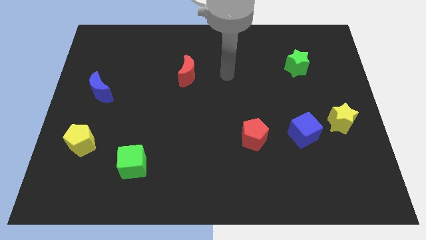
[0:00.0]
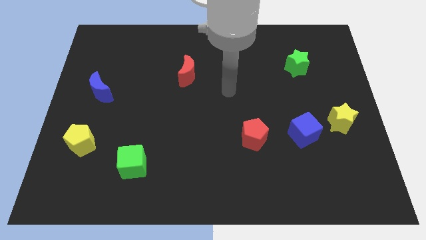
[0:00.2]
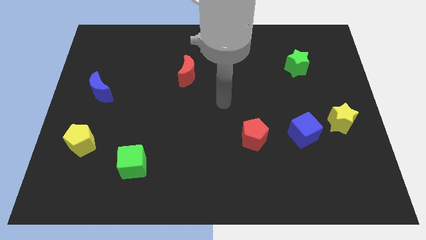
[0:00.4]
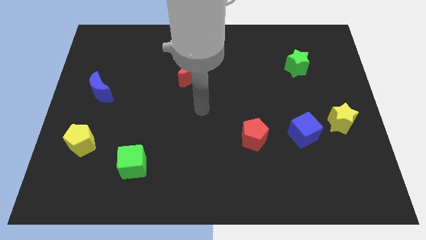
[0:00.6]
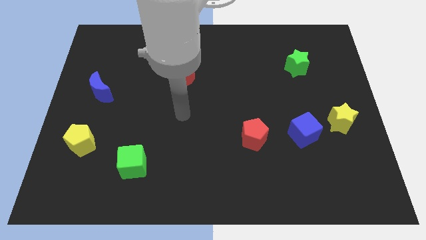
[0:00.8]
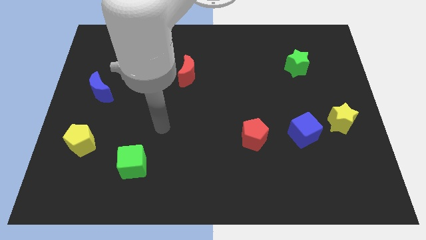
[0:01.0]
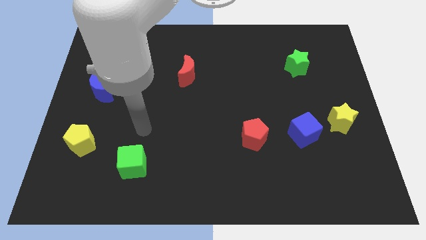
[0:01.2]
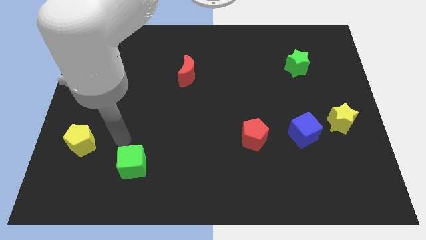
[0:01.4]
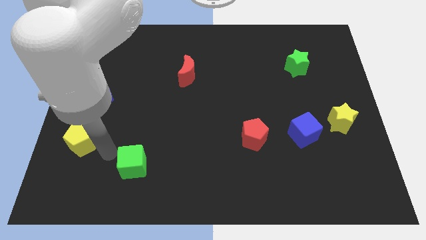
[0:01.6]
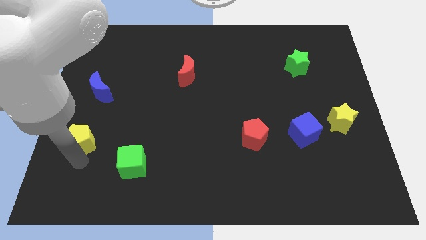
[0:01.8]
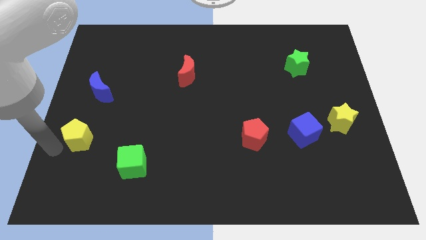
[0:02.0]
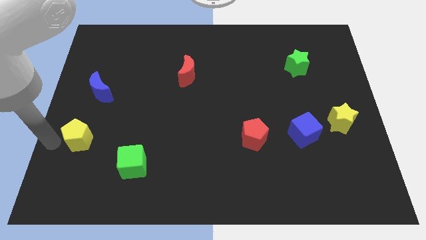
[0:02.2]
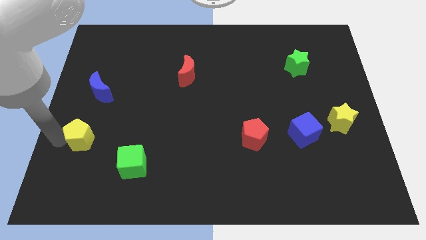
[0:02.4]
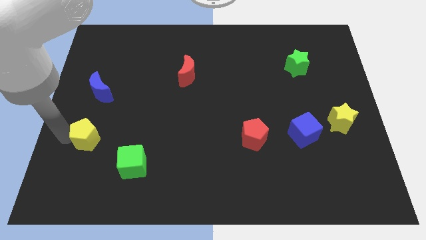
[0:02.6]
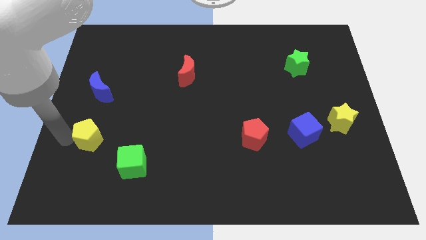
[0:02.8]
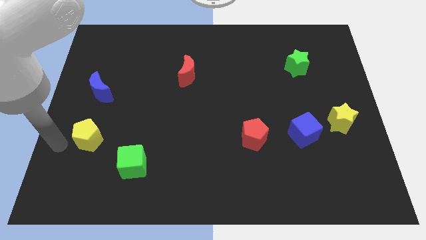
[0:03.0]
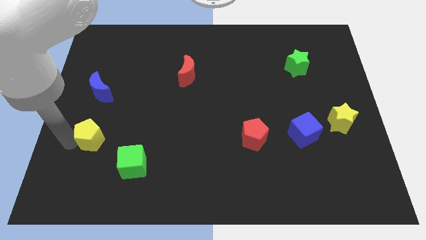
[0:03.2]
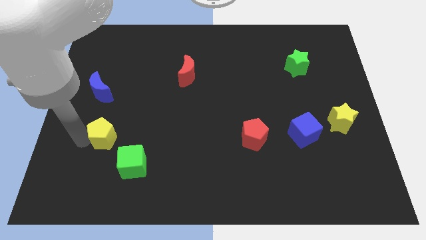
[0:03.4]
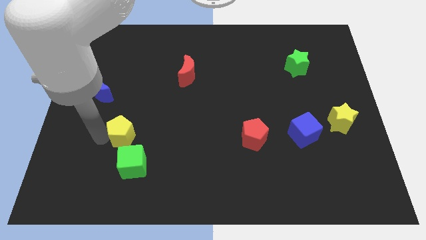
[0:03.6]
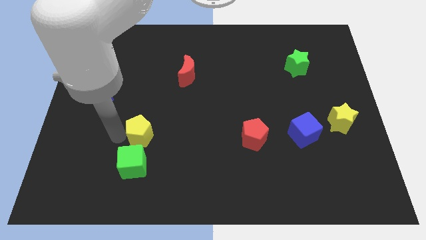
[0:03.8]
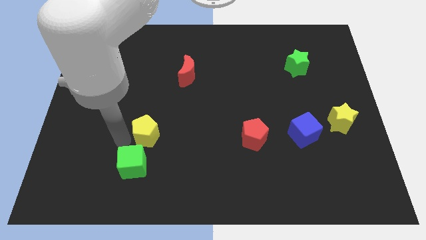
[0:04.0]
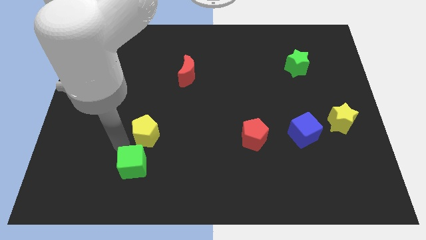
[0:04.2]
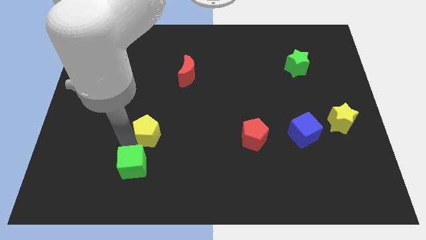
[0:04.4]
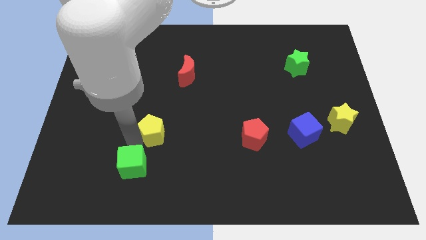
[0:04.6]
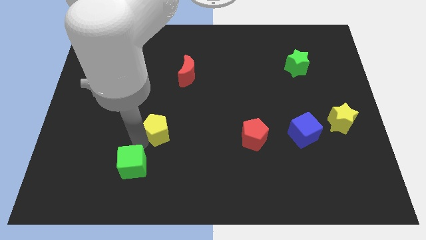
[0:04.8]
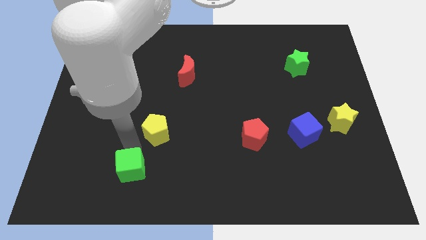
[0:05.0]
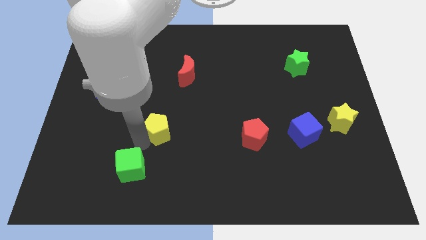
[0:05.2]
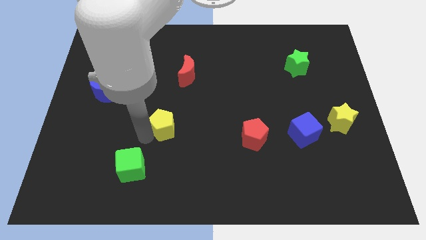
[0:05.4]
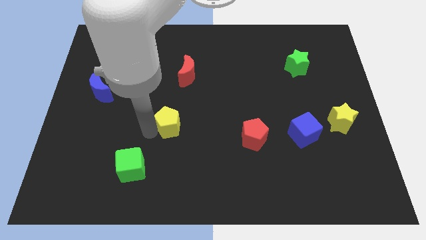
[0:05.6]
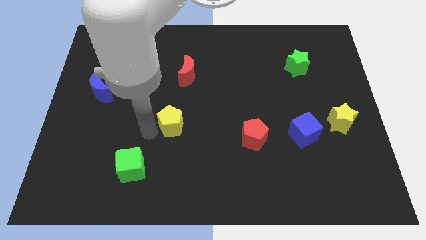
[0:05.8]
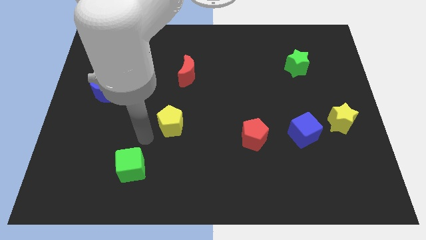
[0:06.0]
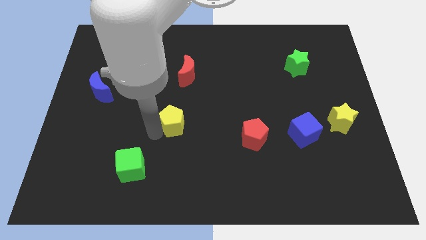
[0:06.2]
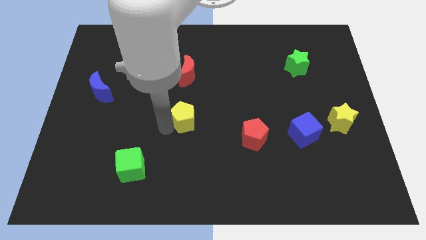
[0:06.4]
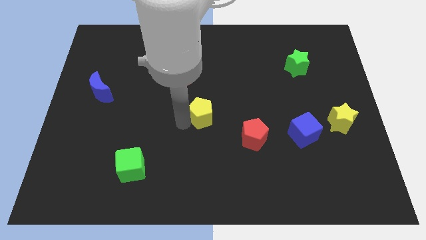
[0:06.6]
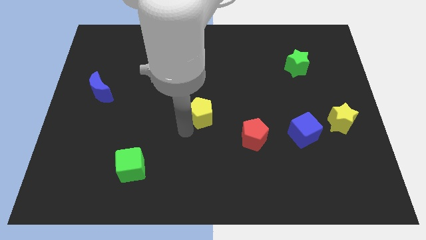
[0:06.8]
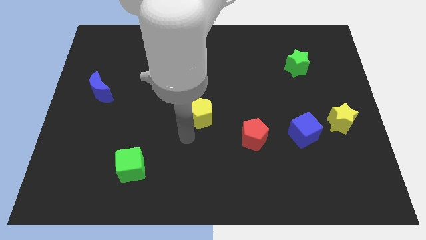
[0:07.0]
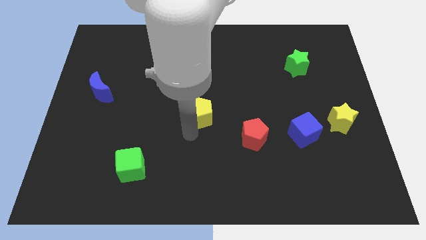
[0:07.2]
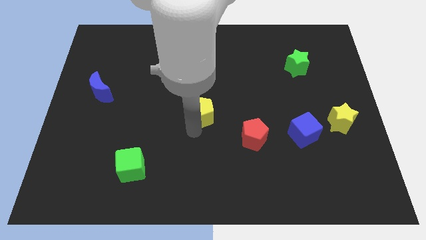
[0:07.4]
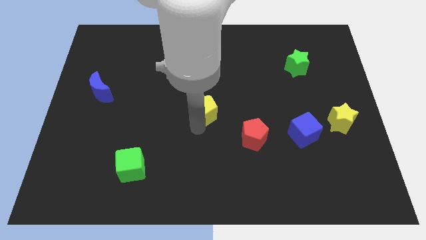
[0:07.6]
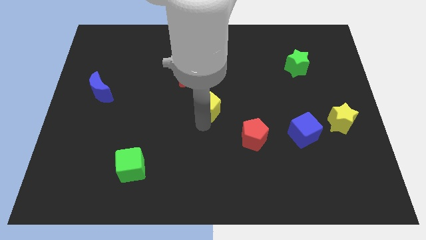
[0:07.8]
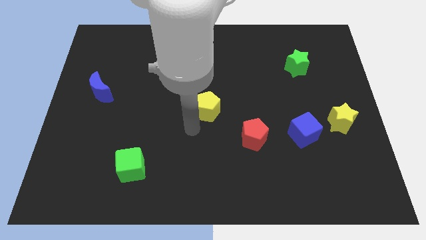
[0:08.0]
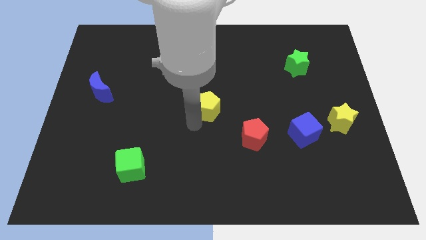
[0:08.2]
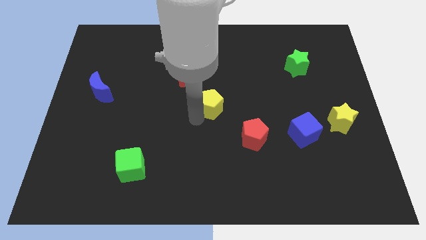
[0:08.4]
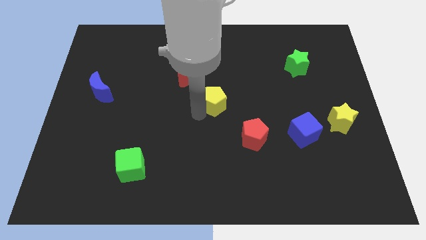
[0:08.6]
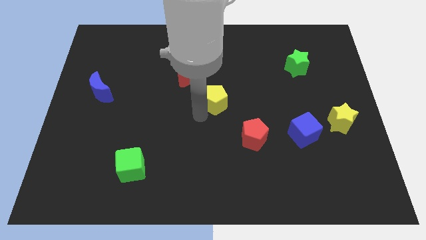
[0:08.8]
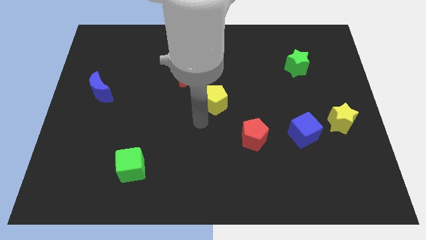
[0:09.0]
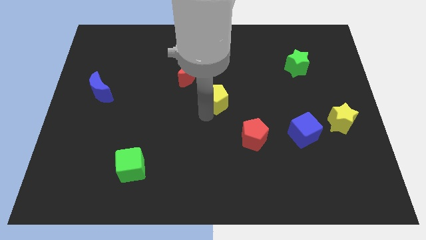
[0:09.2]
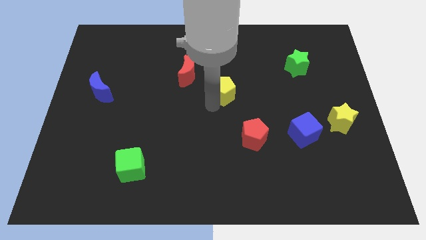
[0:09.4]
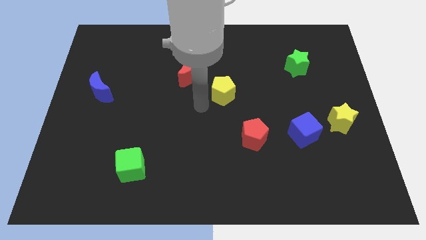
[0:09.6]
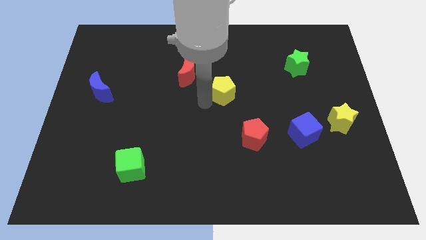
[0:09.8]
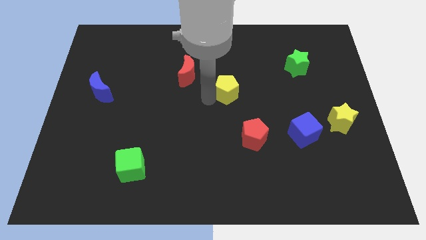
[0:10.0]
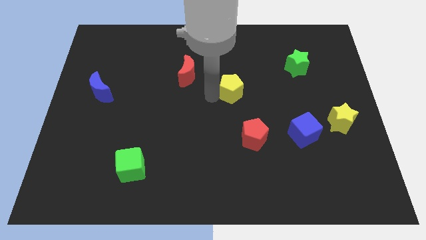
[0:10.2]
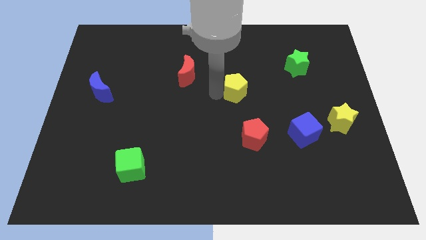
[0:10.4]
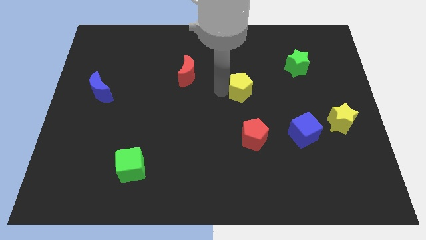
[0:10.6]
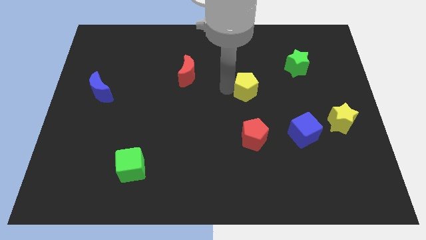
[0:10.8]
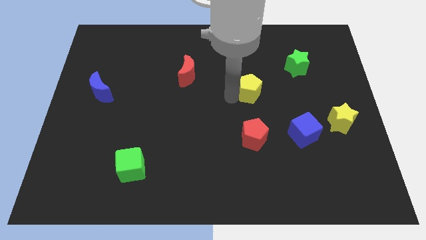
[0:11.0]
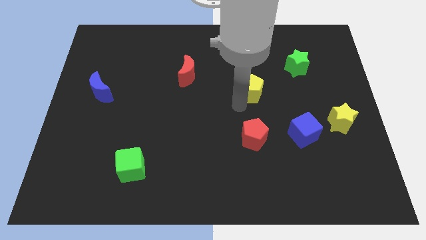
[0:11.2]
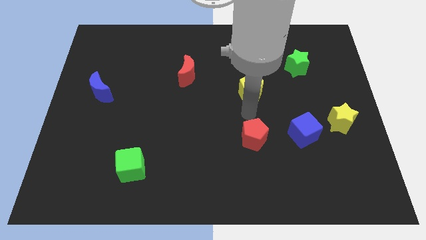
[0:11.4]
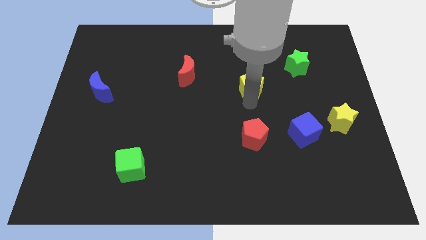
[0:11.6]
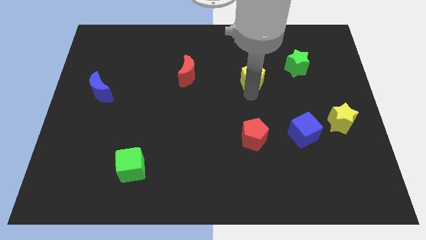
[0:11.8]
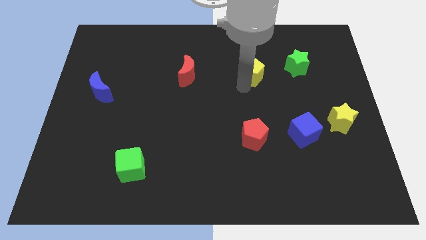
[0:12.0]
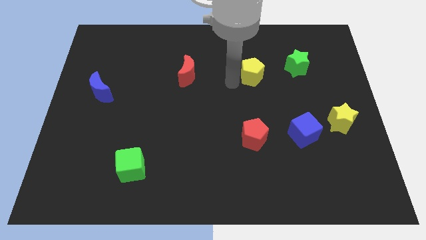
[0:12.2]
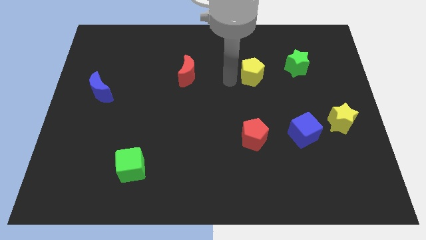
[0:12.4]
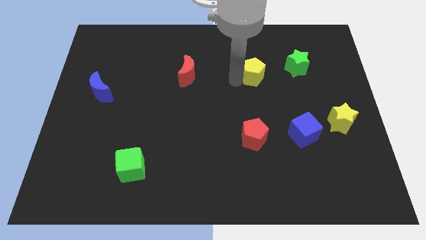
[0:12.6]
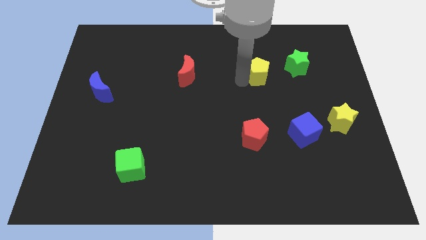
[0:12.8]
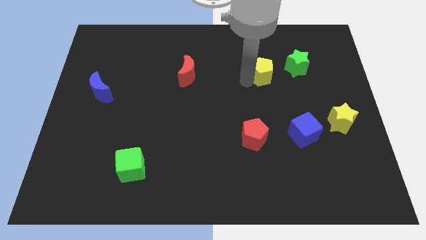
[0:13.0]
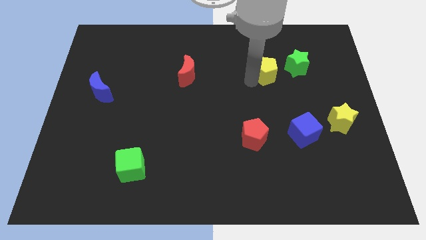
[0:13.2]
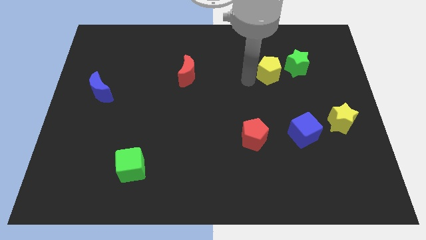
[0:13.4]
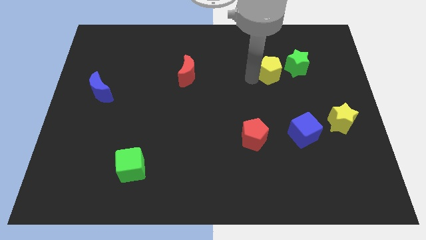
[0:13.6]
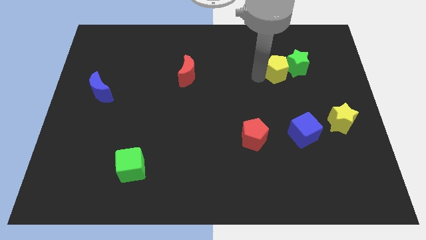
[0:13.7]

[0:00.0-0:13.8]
push the yellow pentagon towards the green star

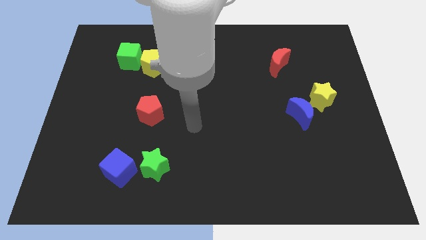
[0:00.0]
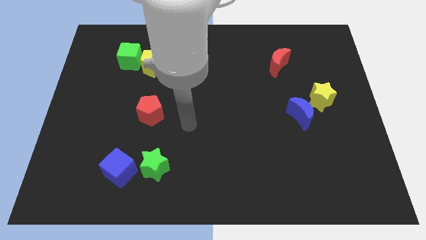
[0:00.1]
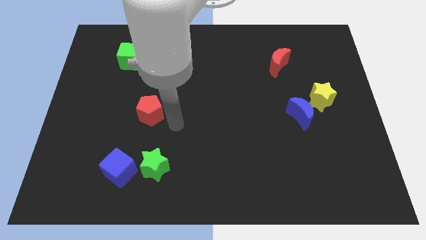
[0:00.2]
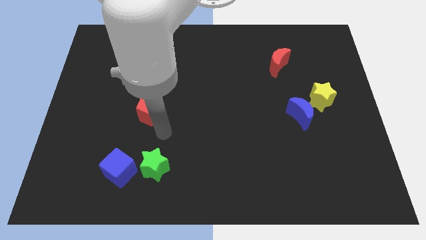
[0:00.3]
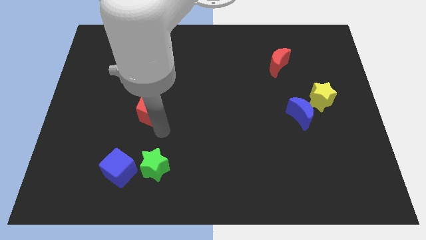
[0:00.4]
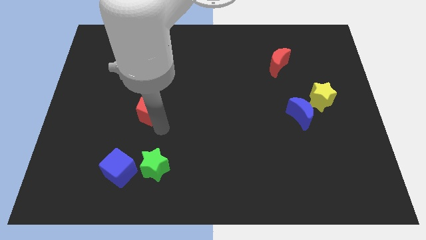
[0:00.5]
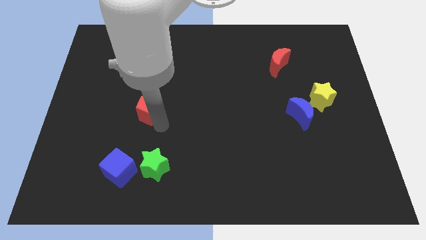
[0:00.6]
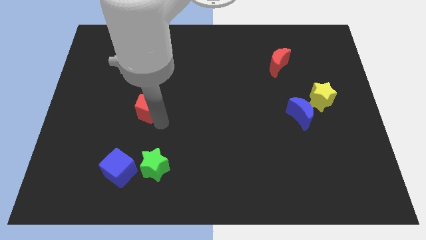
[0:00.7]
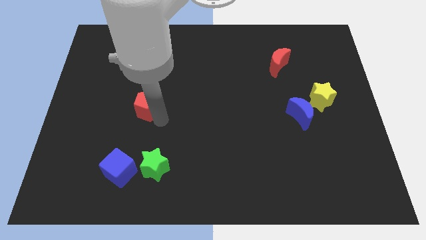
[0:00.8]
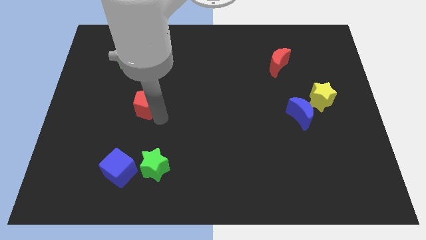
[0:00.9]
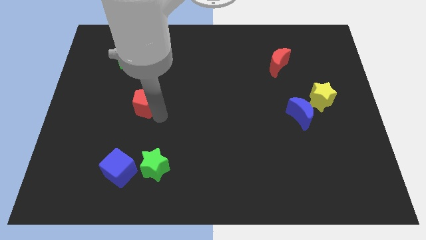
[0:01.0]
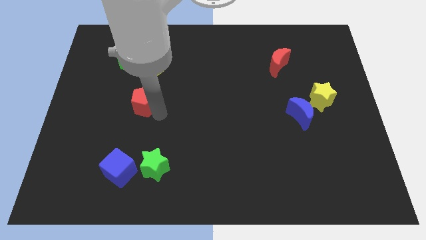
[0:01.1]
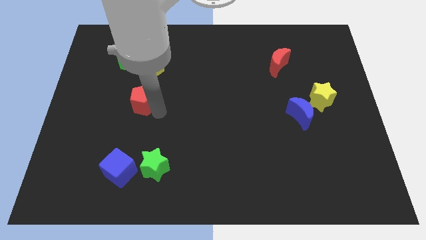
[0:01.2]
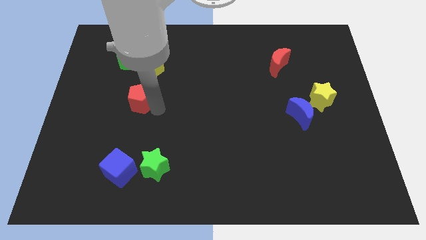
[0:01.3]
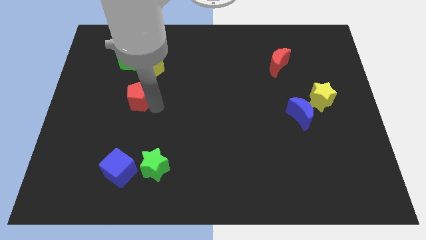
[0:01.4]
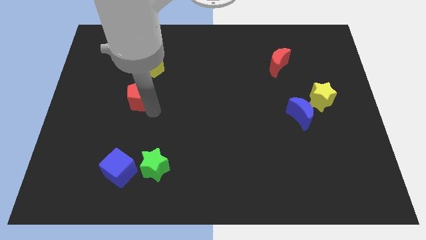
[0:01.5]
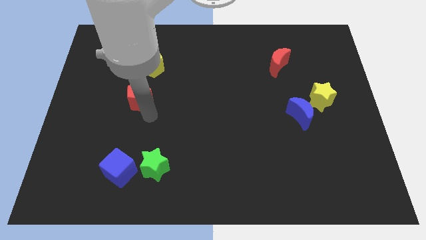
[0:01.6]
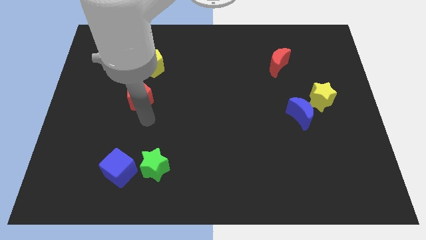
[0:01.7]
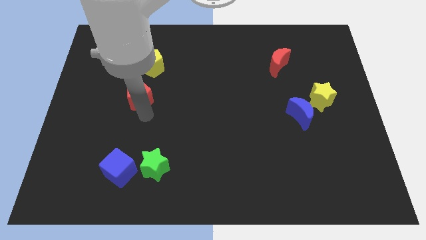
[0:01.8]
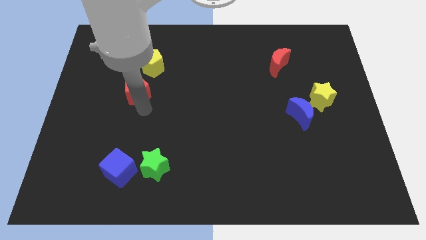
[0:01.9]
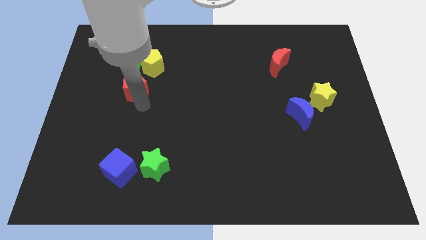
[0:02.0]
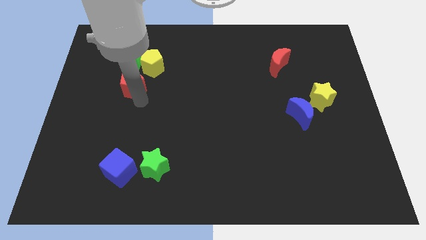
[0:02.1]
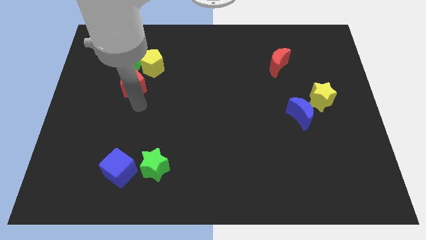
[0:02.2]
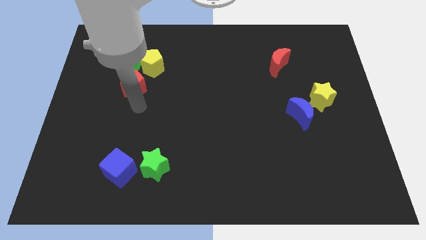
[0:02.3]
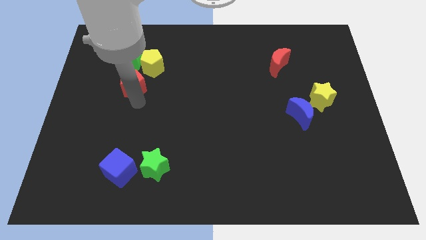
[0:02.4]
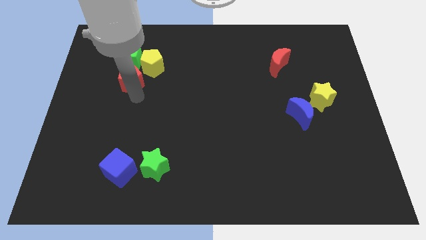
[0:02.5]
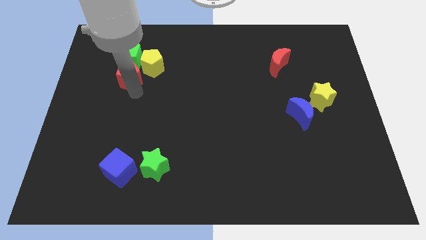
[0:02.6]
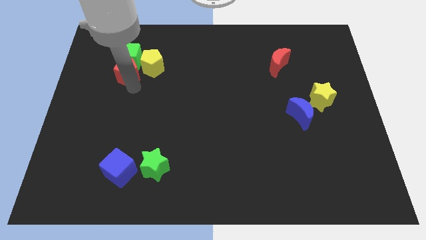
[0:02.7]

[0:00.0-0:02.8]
move the red pentagon towards the green cube
